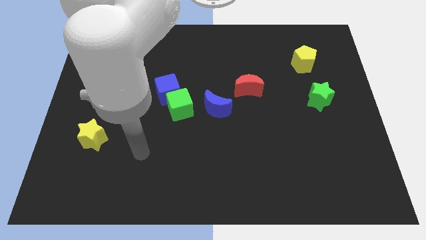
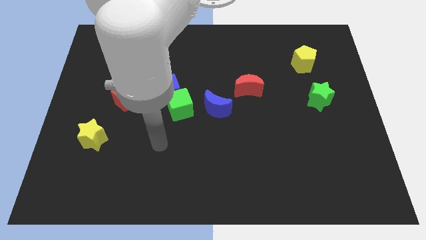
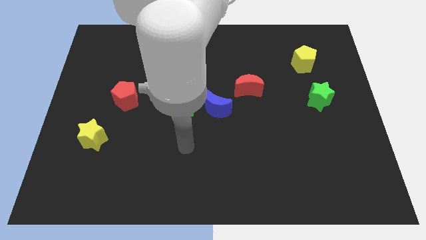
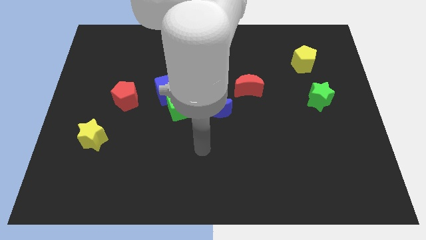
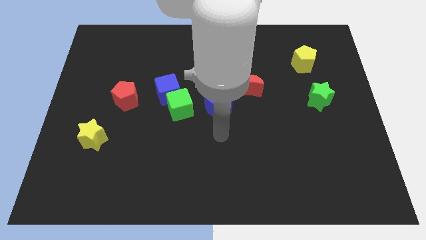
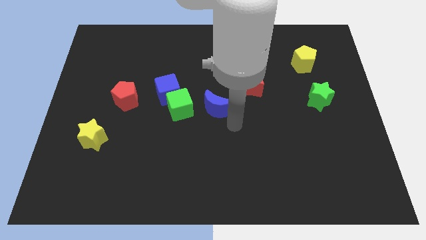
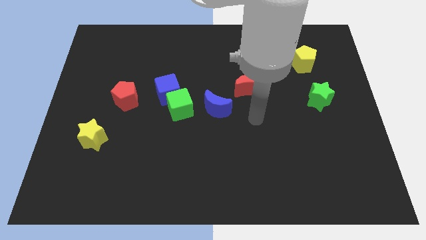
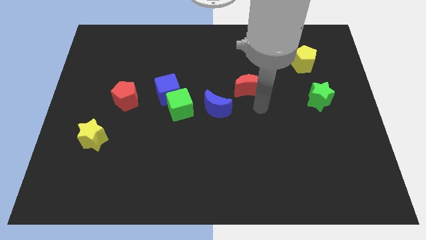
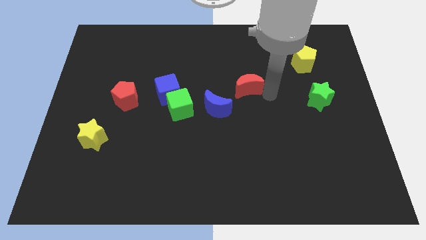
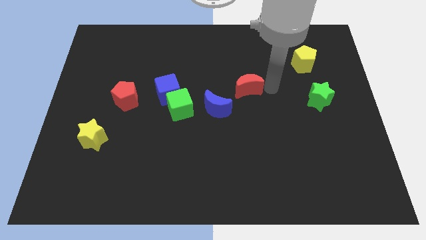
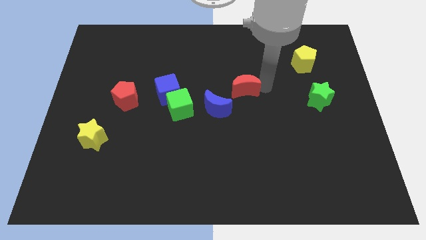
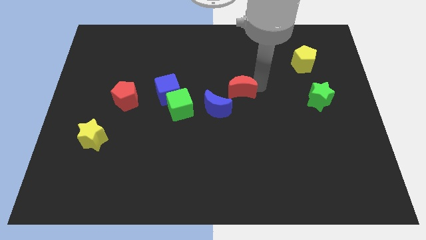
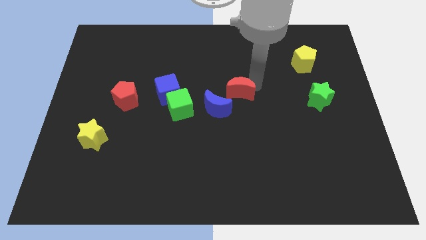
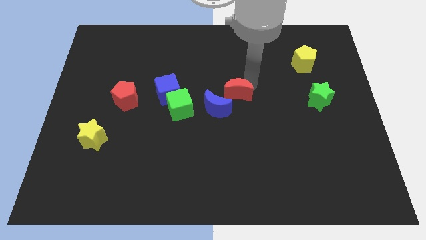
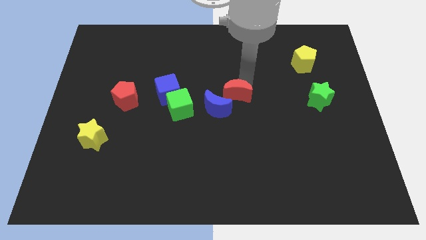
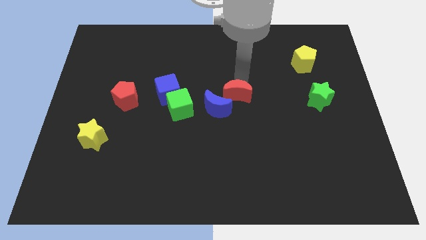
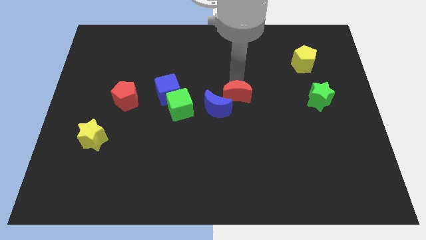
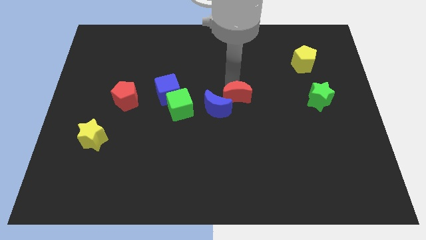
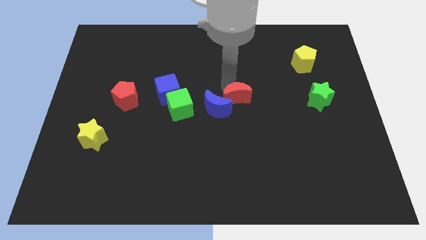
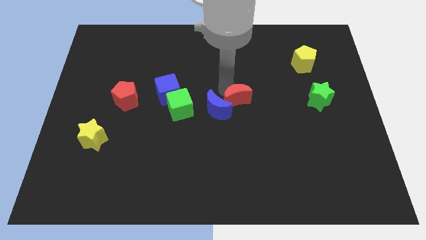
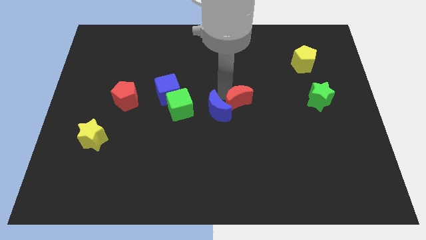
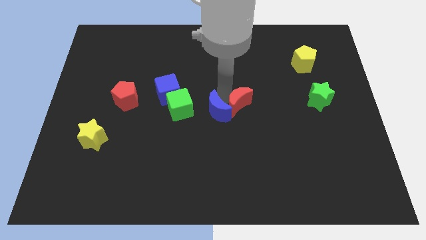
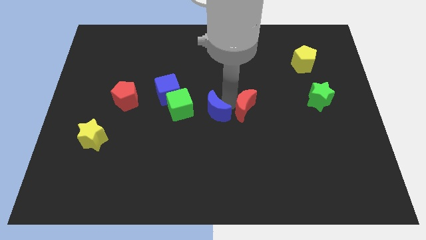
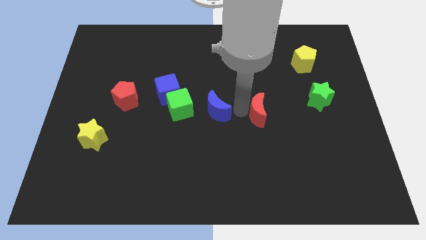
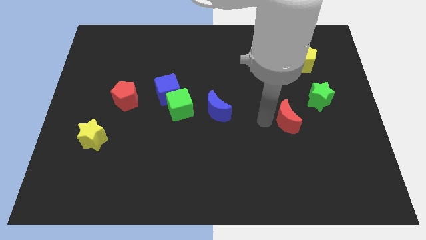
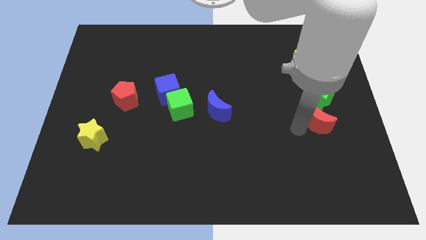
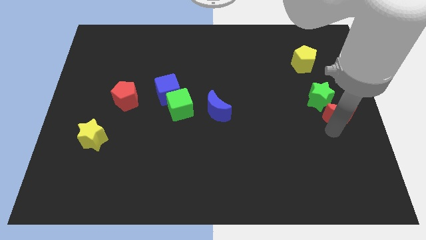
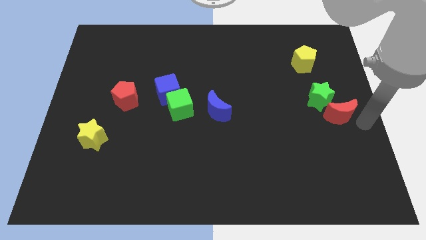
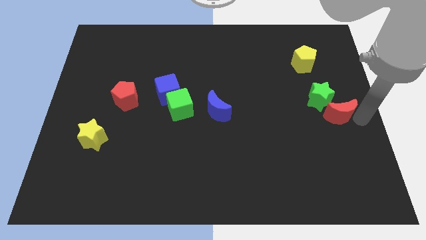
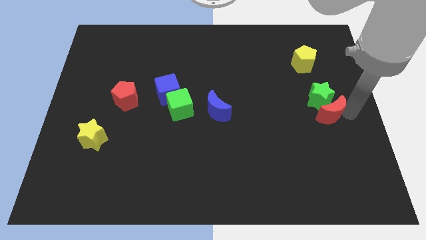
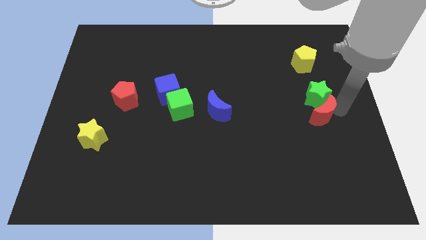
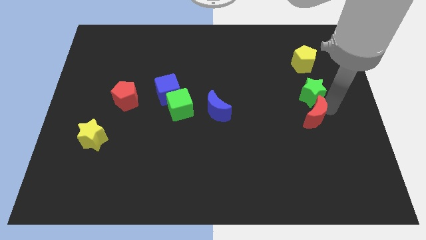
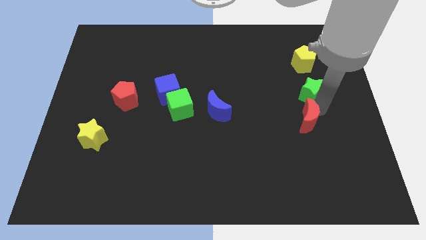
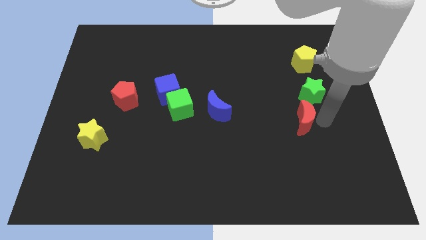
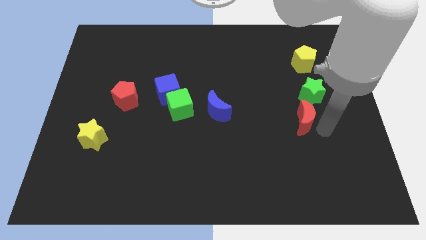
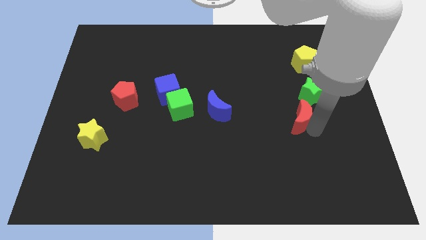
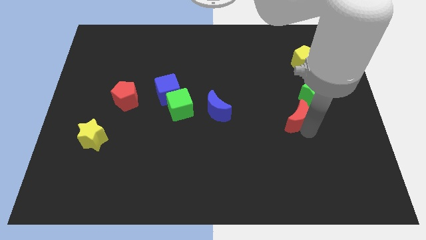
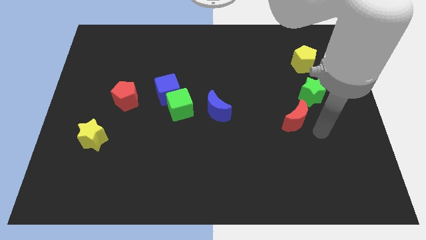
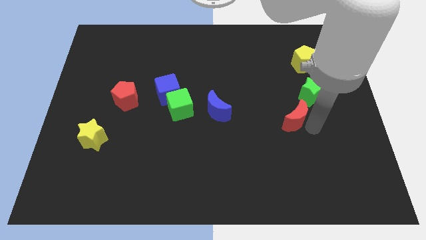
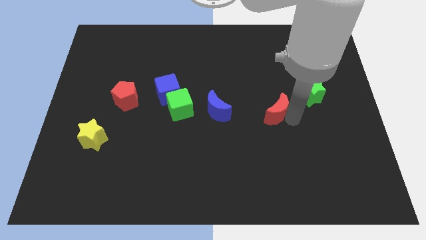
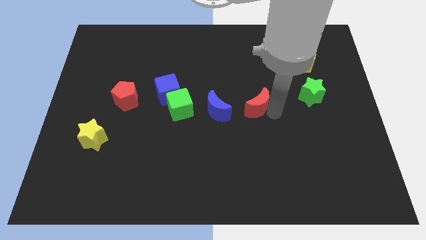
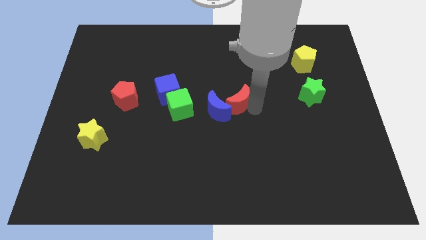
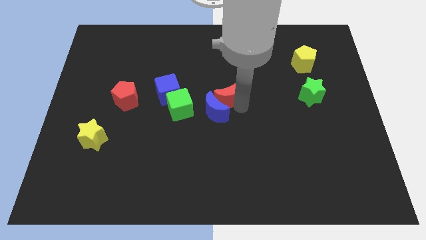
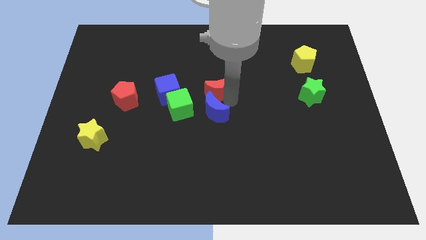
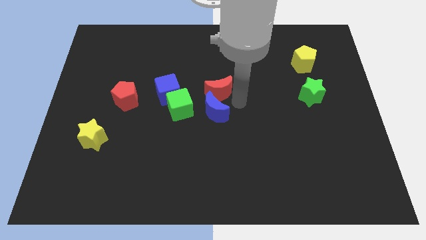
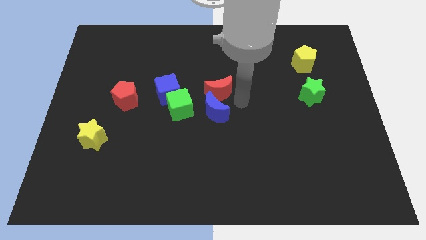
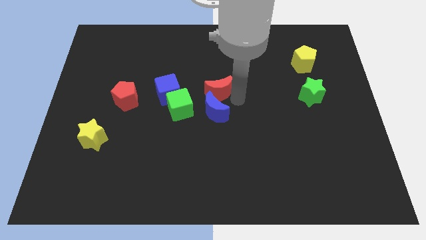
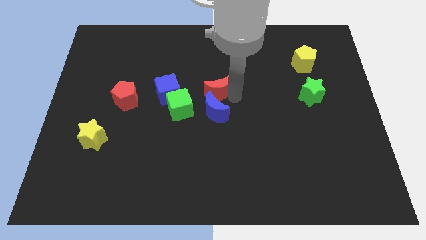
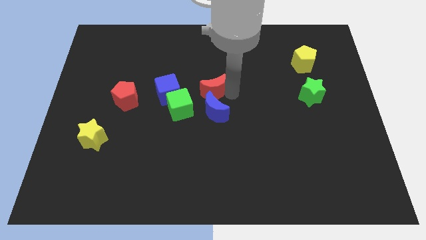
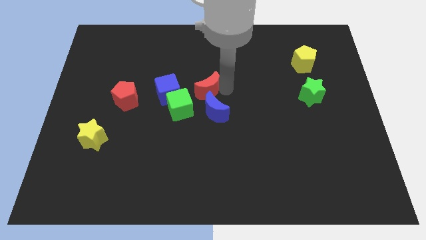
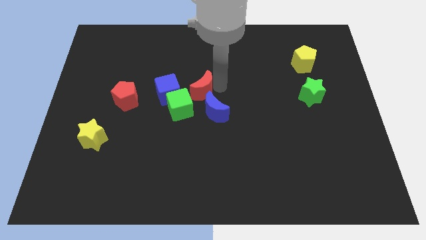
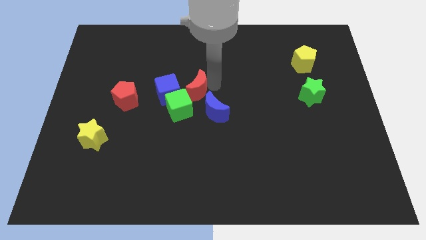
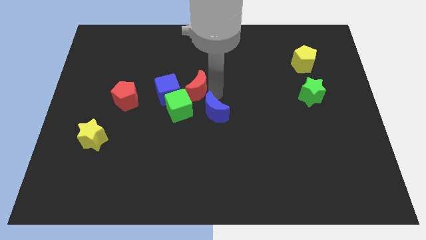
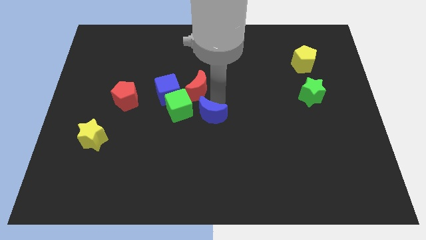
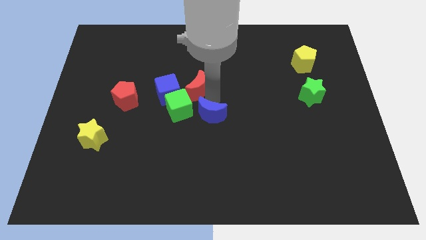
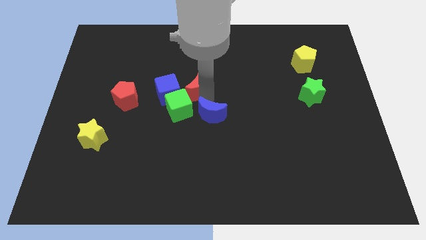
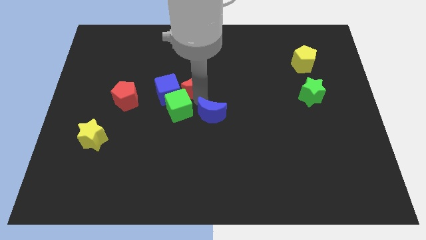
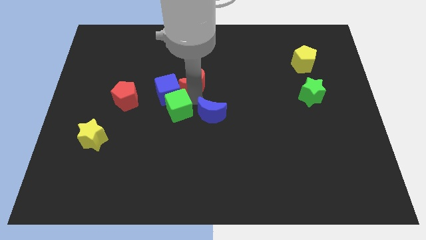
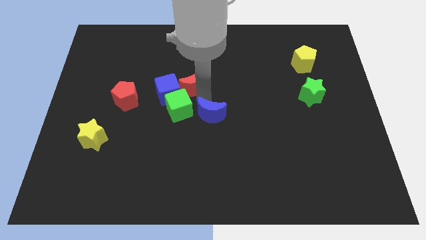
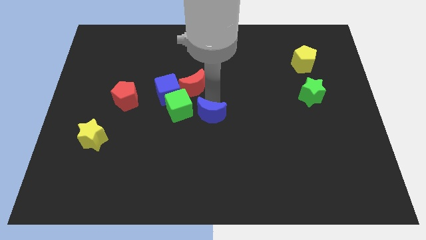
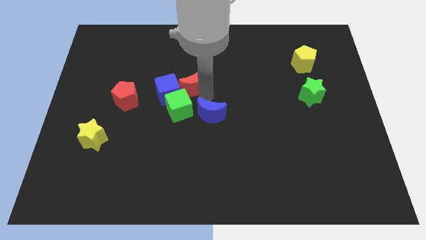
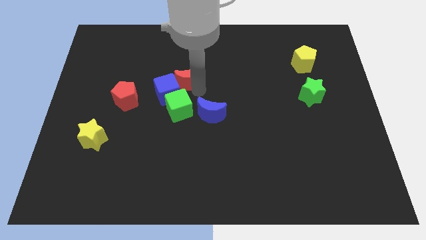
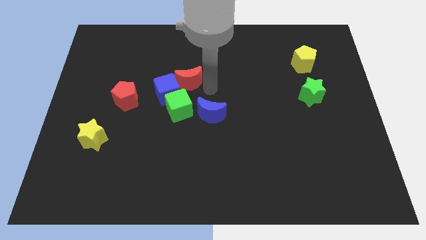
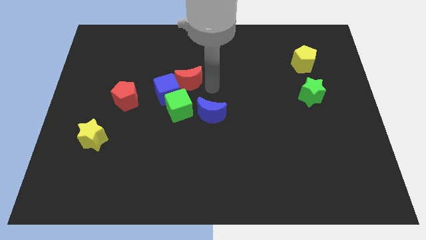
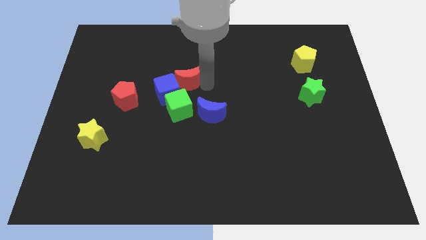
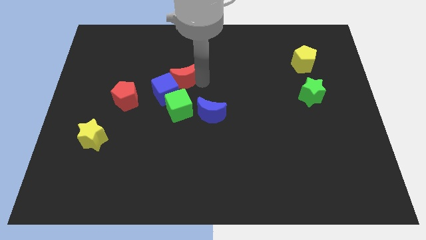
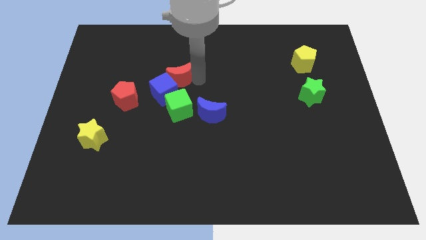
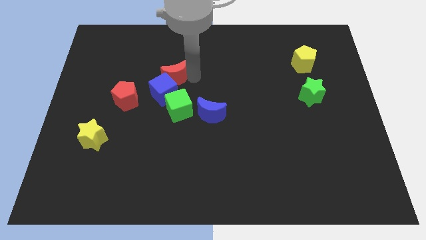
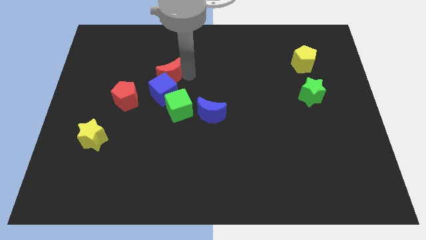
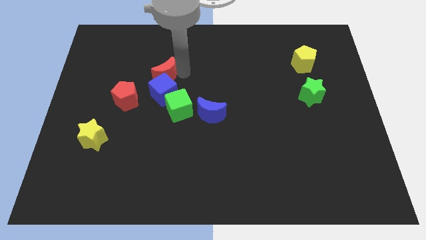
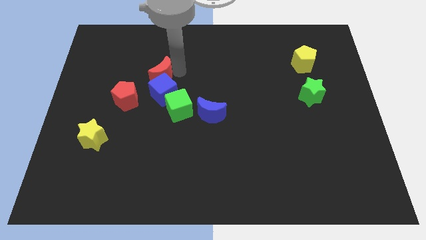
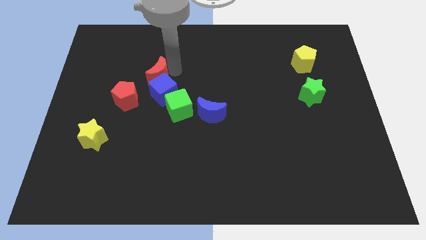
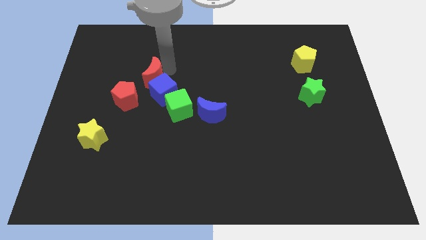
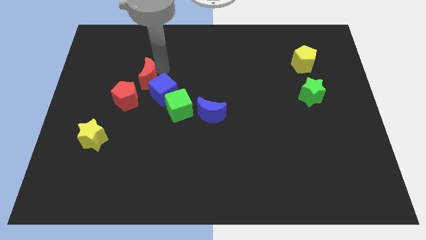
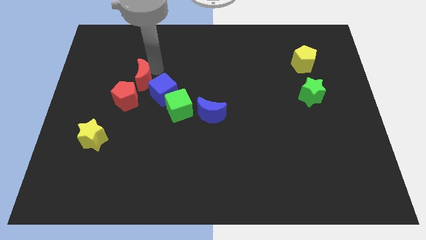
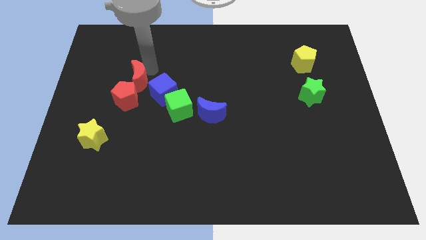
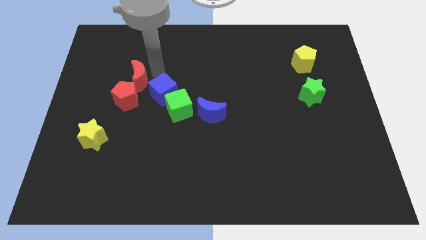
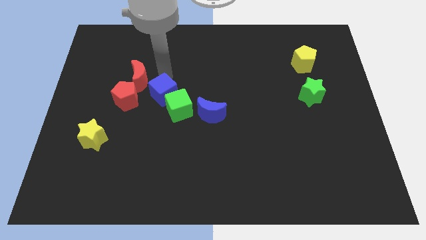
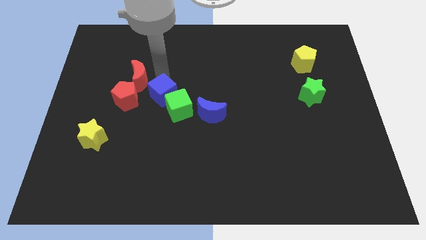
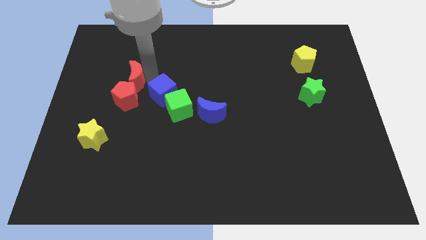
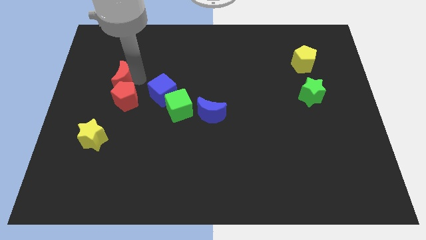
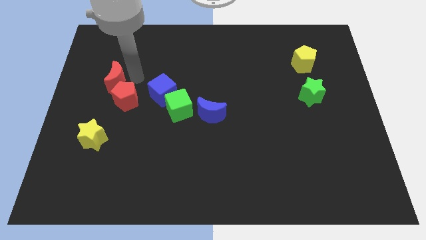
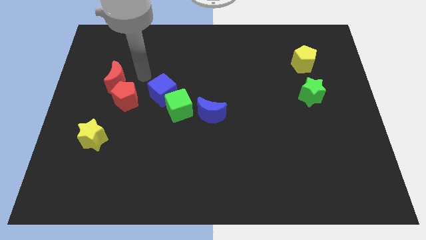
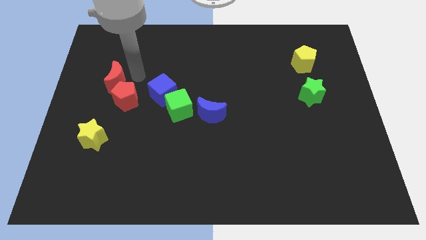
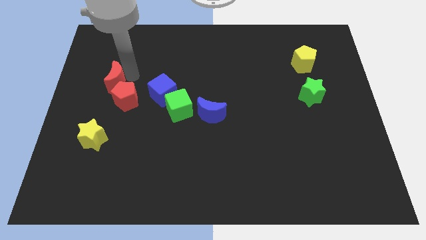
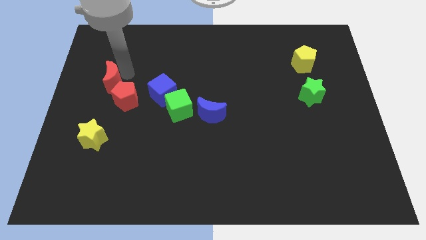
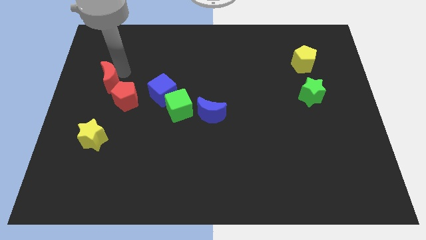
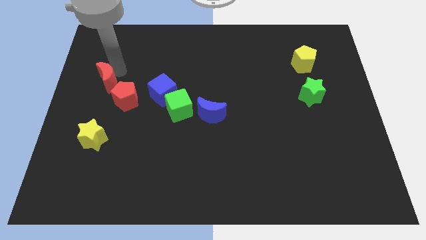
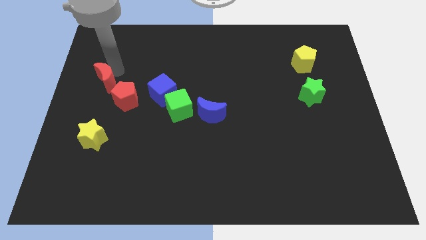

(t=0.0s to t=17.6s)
move the red moon to the center left
